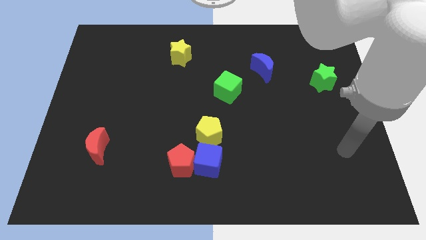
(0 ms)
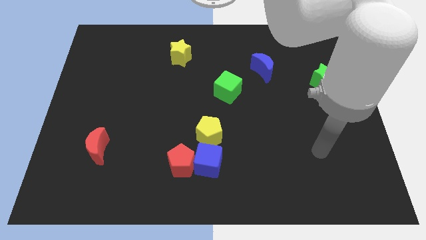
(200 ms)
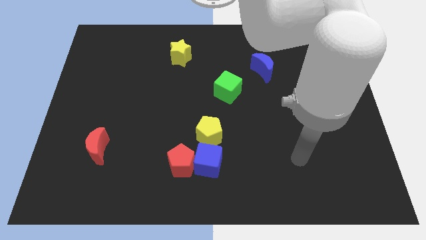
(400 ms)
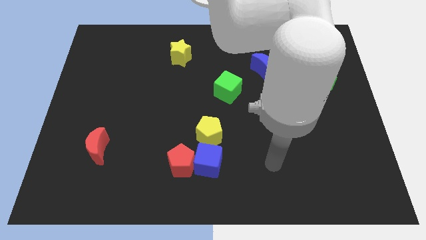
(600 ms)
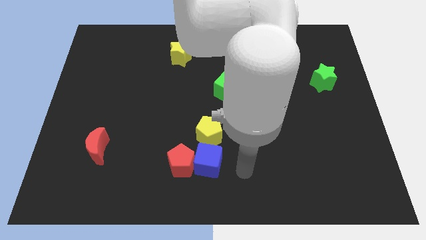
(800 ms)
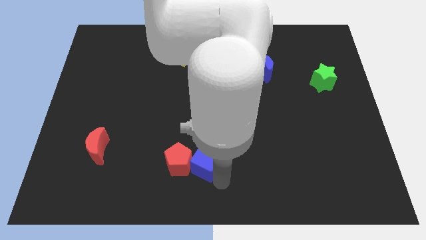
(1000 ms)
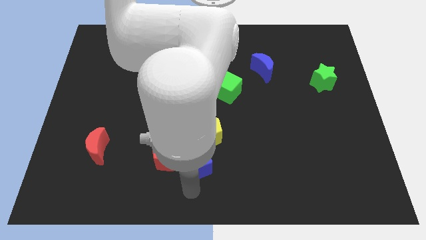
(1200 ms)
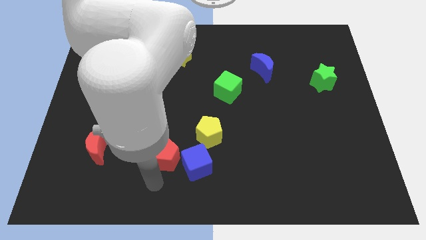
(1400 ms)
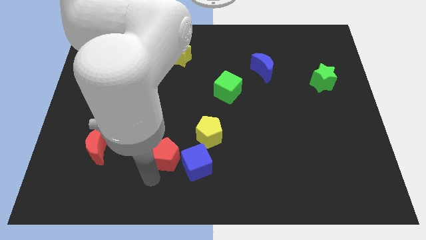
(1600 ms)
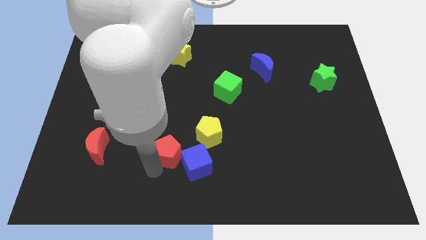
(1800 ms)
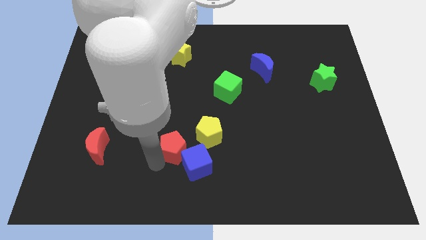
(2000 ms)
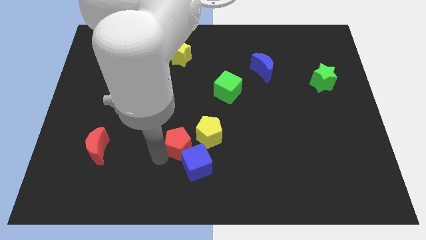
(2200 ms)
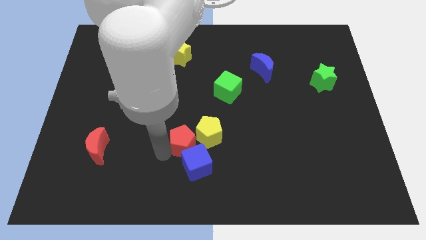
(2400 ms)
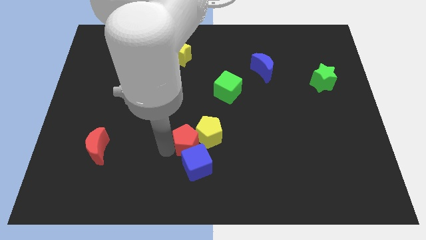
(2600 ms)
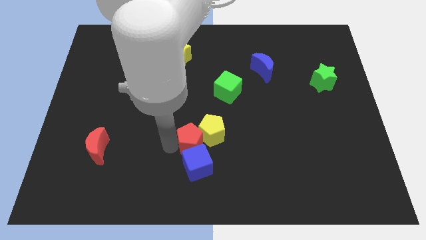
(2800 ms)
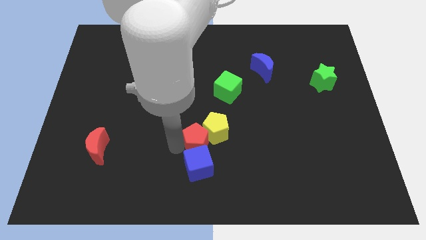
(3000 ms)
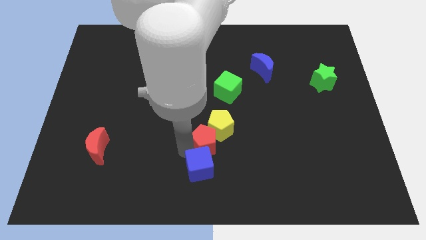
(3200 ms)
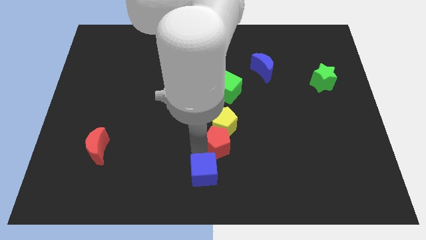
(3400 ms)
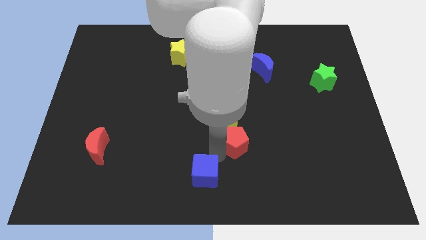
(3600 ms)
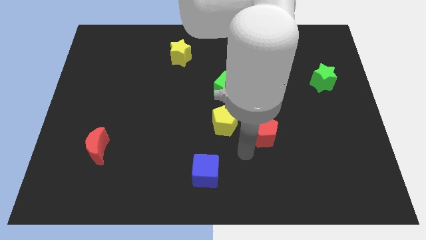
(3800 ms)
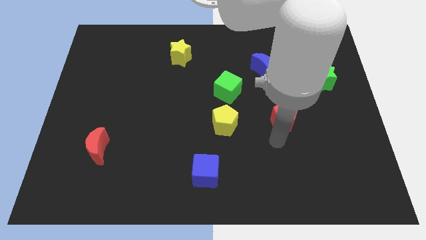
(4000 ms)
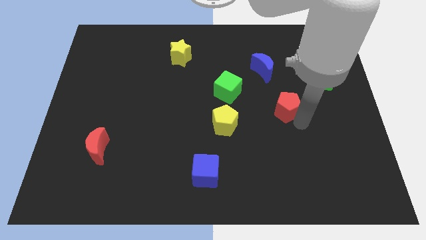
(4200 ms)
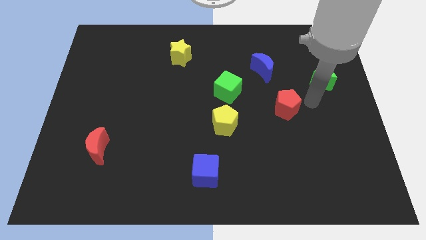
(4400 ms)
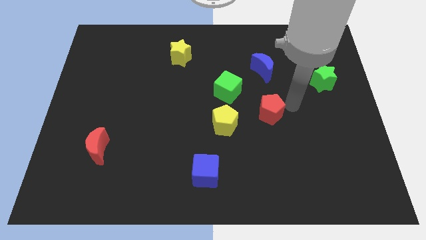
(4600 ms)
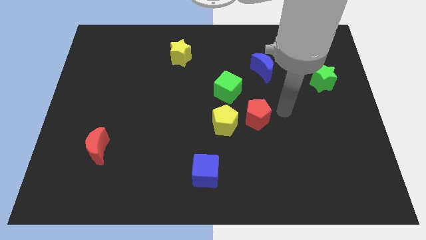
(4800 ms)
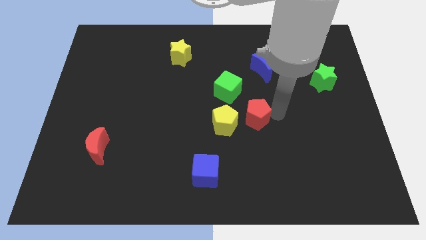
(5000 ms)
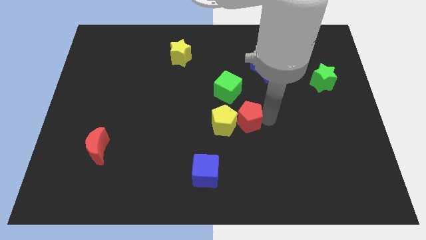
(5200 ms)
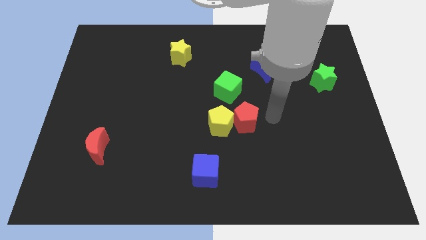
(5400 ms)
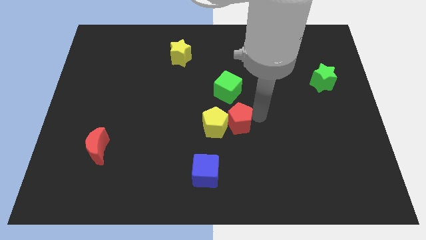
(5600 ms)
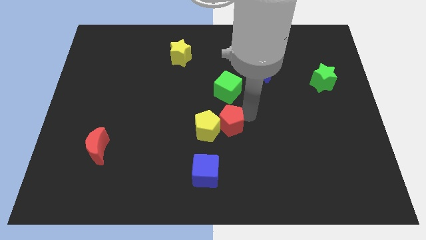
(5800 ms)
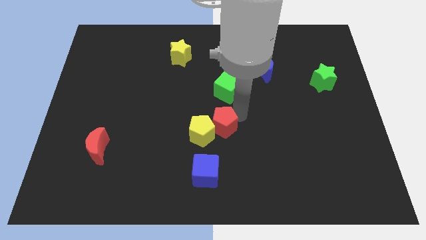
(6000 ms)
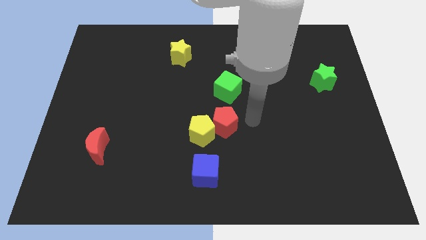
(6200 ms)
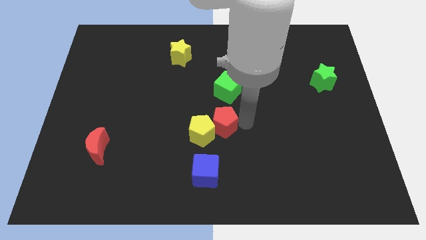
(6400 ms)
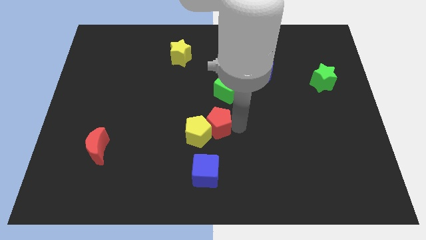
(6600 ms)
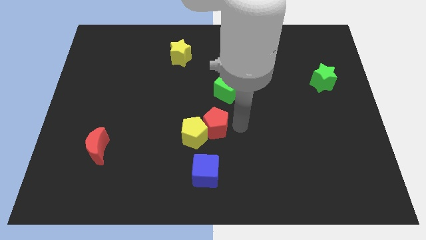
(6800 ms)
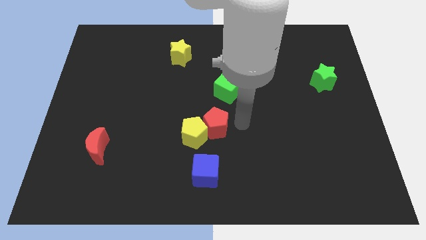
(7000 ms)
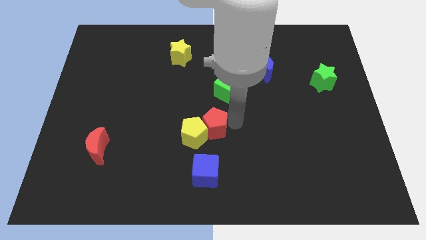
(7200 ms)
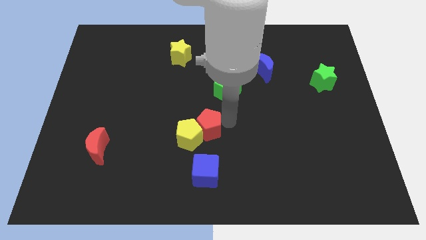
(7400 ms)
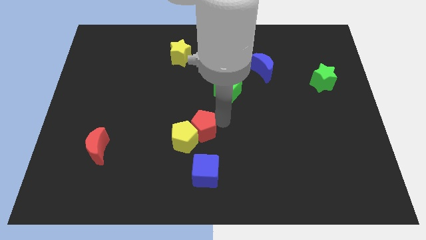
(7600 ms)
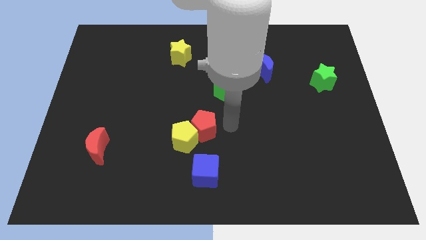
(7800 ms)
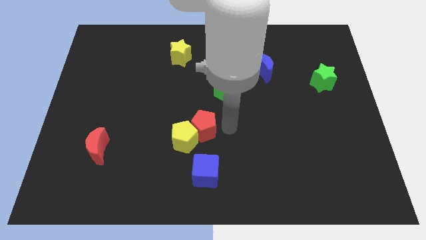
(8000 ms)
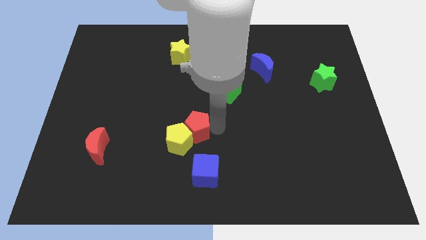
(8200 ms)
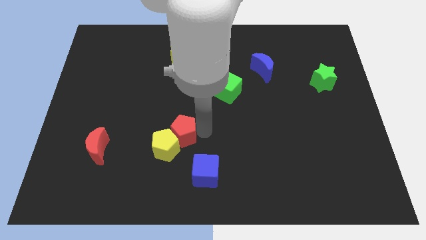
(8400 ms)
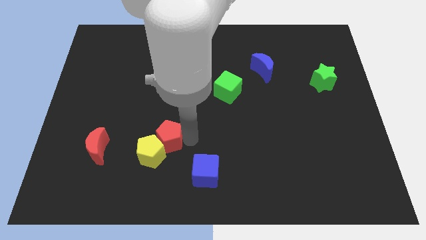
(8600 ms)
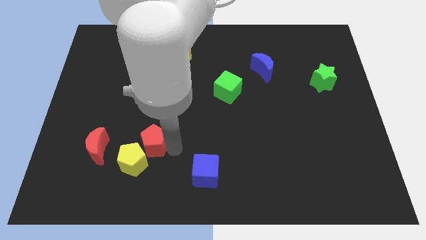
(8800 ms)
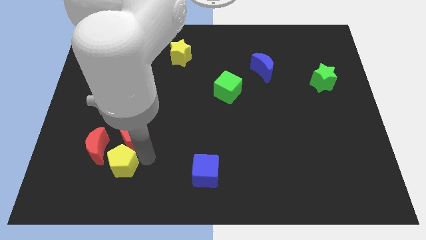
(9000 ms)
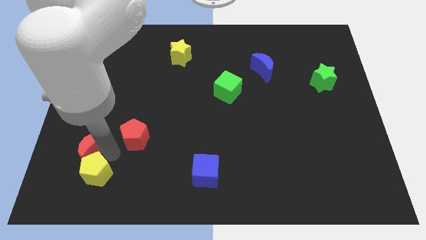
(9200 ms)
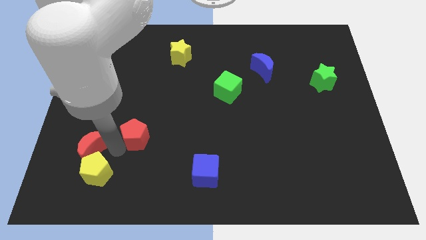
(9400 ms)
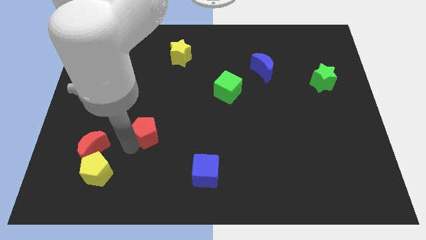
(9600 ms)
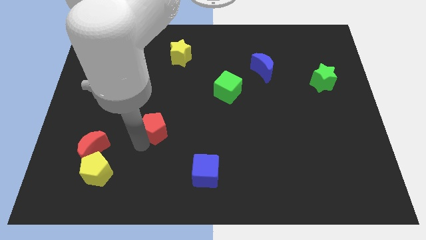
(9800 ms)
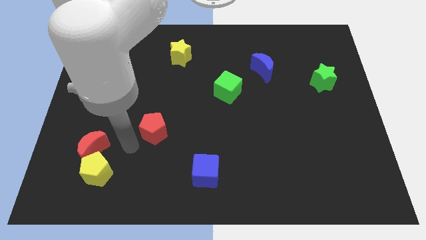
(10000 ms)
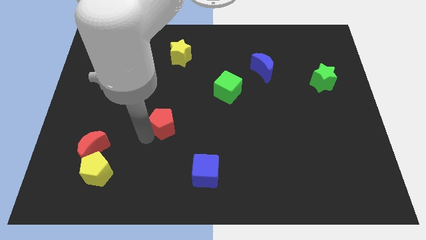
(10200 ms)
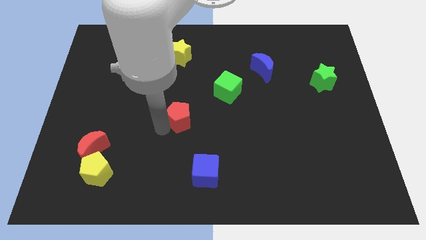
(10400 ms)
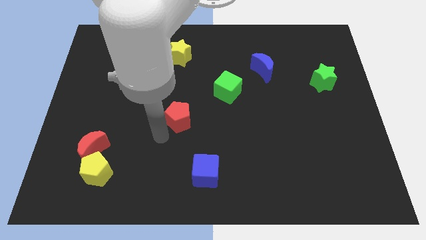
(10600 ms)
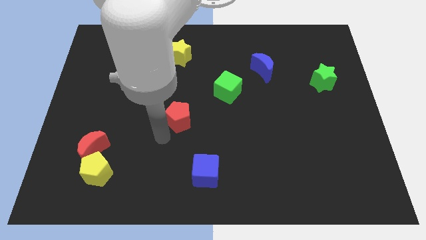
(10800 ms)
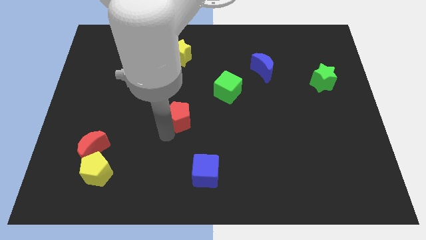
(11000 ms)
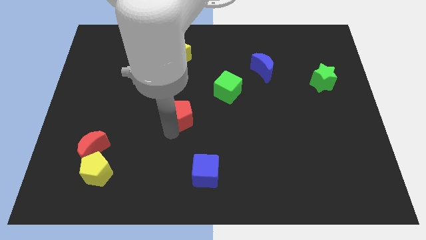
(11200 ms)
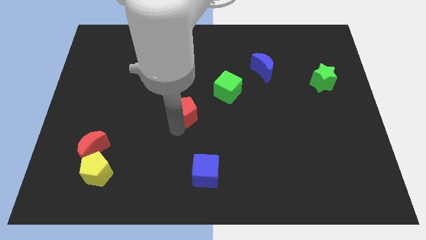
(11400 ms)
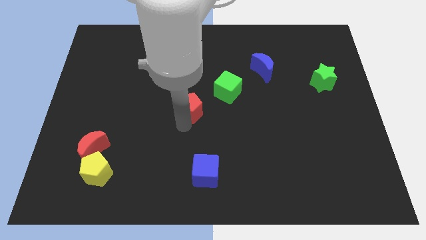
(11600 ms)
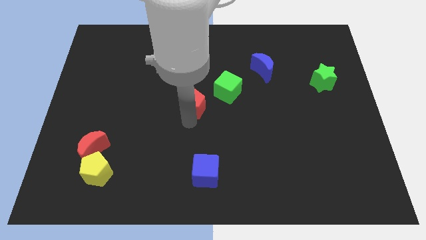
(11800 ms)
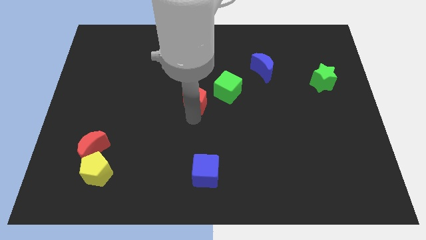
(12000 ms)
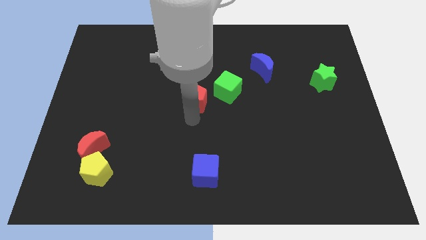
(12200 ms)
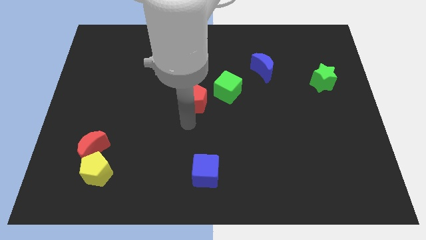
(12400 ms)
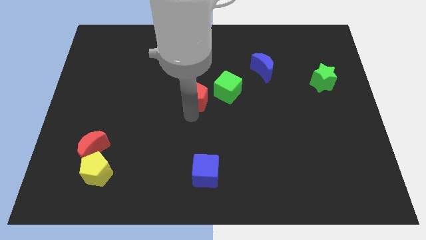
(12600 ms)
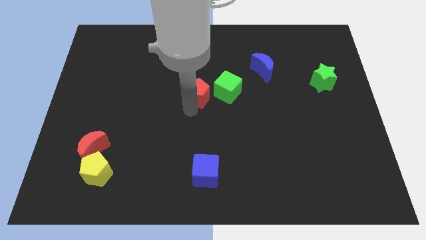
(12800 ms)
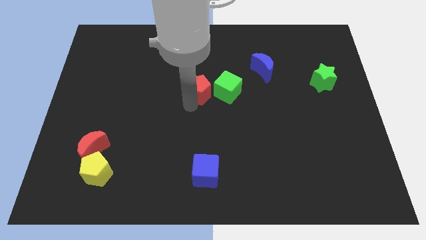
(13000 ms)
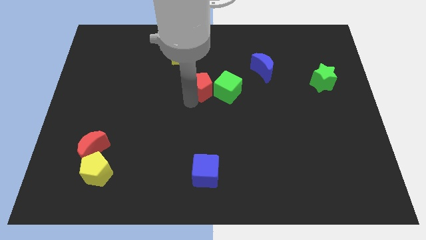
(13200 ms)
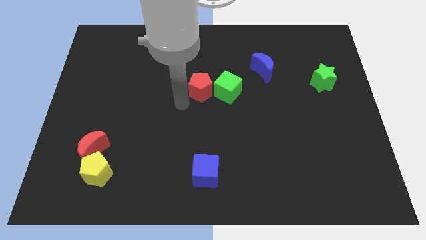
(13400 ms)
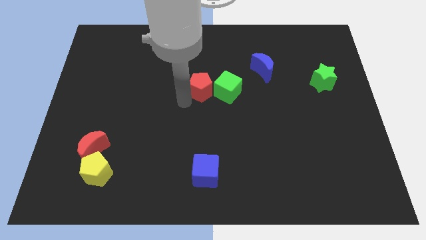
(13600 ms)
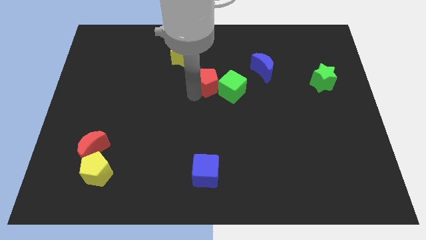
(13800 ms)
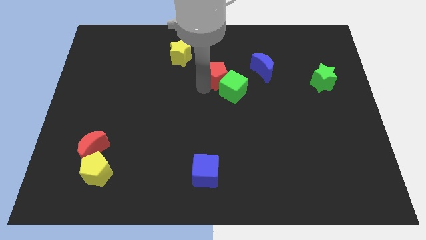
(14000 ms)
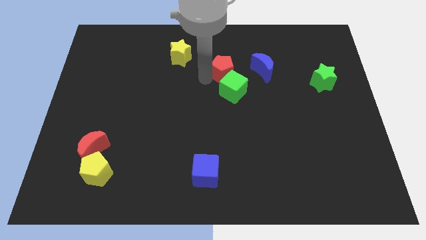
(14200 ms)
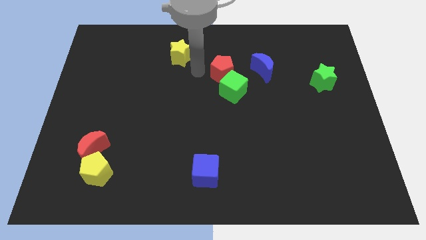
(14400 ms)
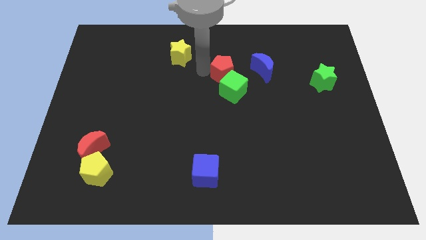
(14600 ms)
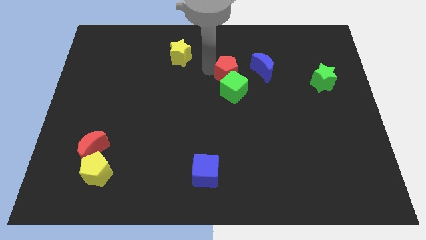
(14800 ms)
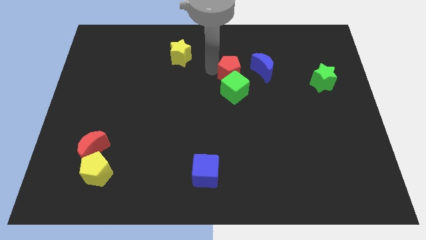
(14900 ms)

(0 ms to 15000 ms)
slide the red pentagon to the top right of the green cube
